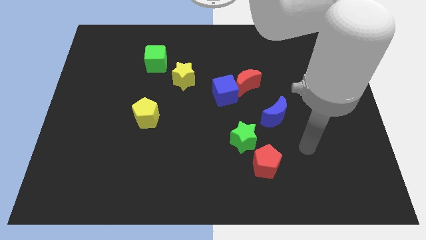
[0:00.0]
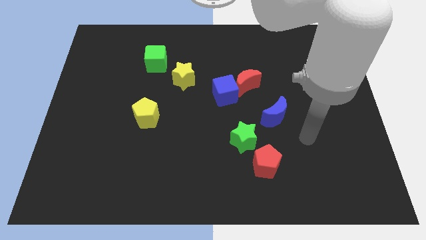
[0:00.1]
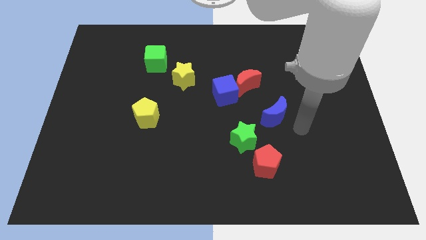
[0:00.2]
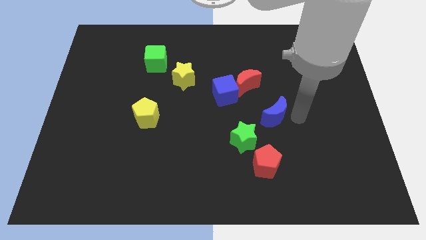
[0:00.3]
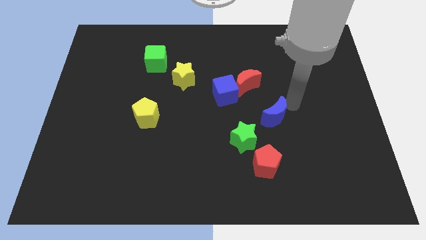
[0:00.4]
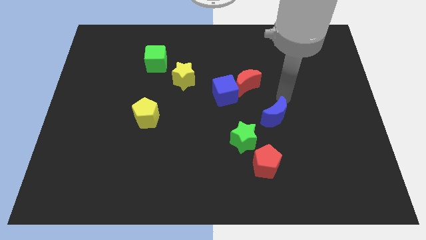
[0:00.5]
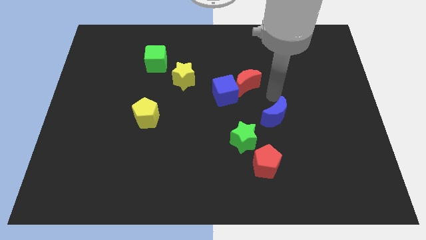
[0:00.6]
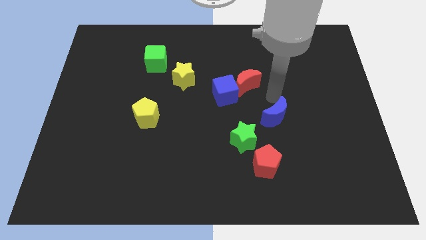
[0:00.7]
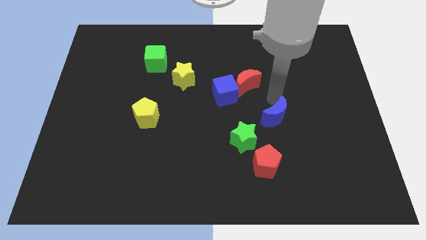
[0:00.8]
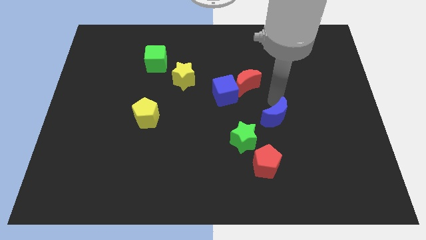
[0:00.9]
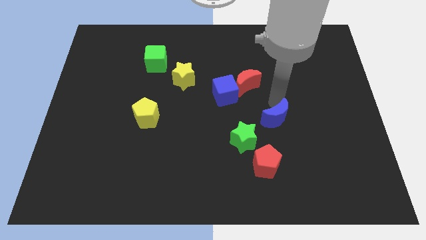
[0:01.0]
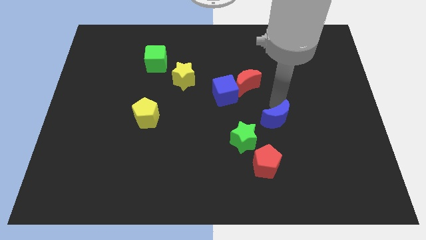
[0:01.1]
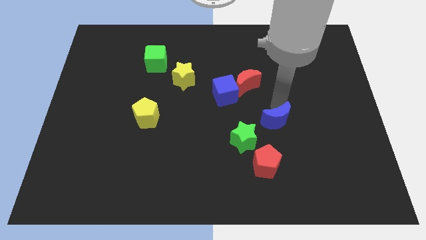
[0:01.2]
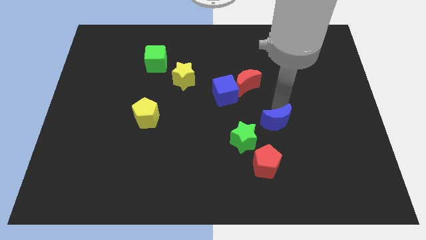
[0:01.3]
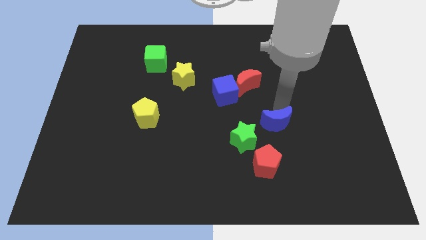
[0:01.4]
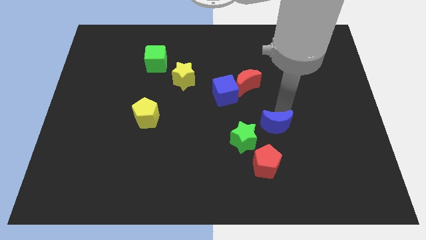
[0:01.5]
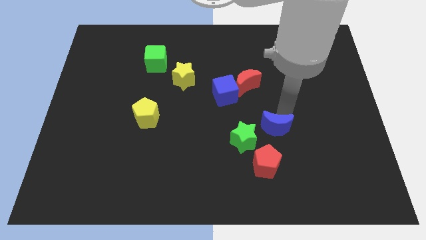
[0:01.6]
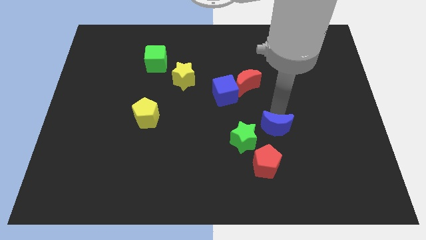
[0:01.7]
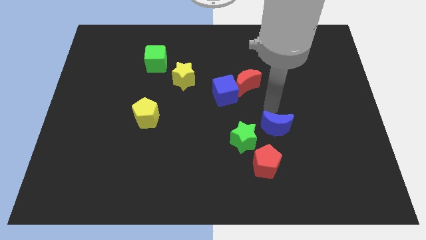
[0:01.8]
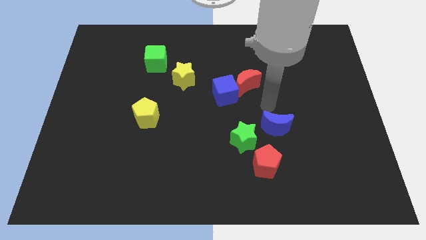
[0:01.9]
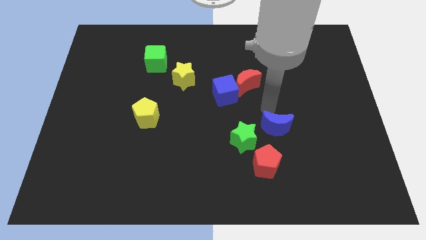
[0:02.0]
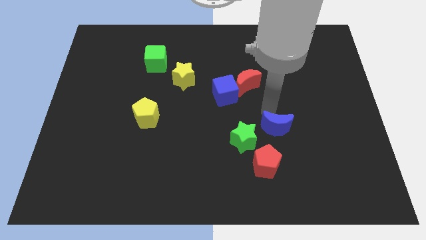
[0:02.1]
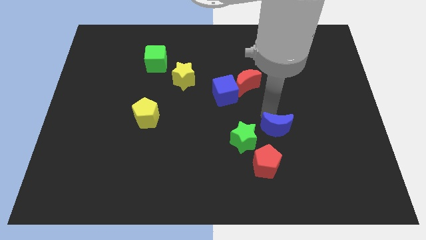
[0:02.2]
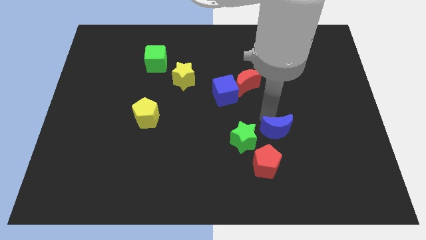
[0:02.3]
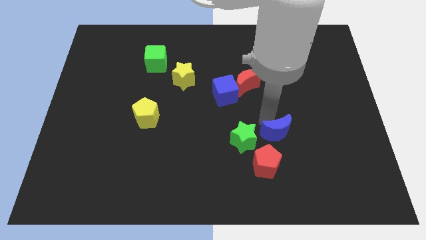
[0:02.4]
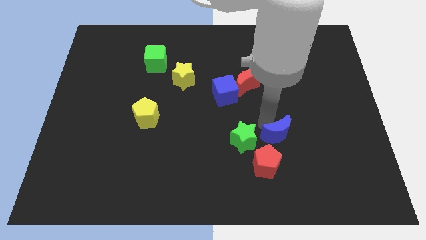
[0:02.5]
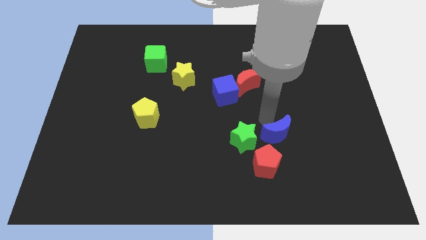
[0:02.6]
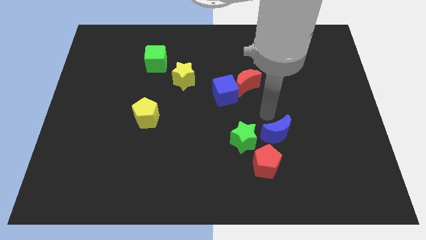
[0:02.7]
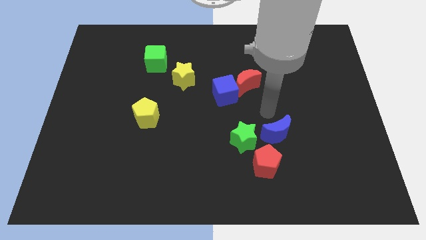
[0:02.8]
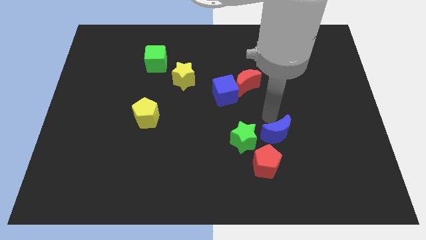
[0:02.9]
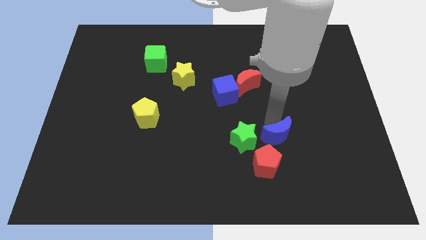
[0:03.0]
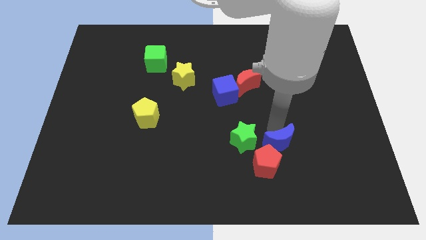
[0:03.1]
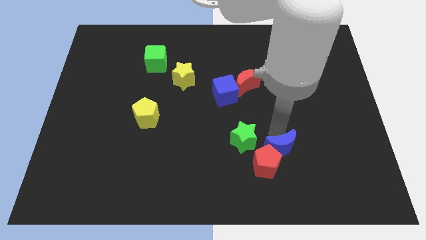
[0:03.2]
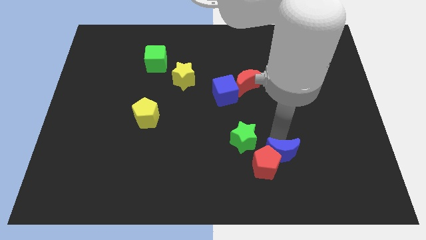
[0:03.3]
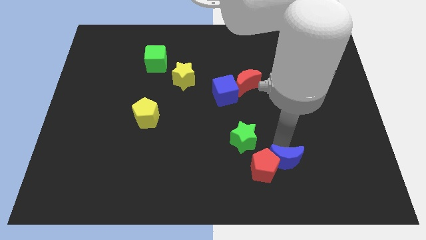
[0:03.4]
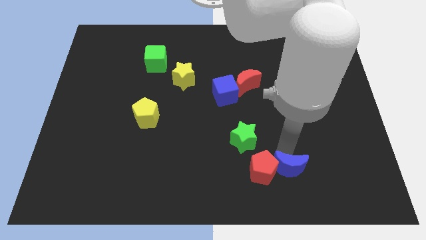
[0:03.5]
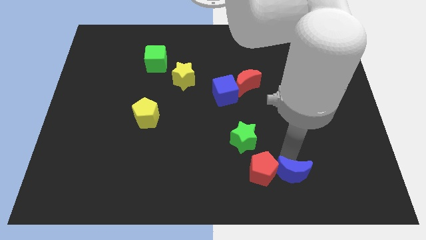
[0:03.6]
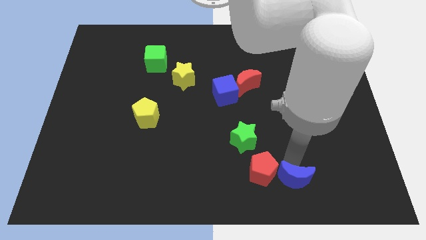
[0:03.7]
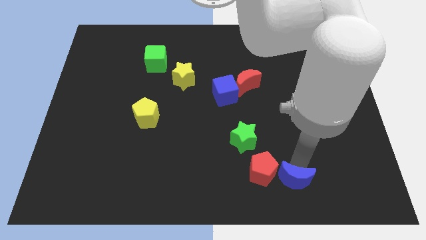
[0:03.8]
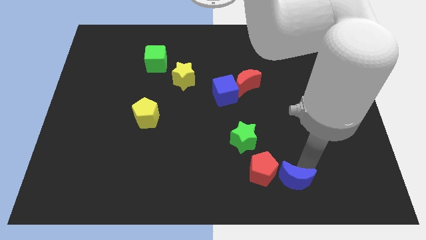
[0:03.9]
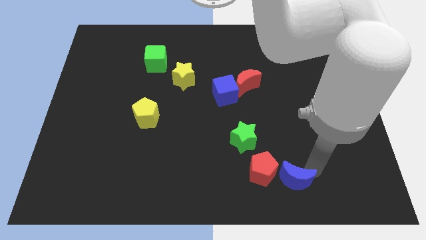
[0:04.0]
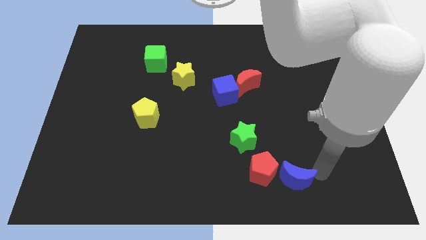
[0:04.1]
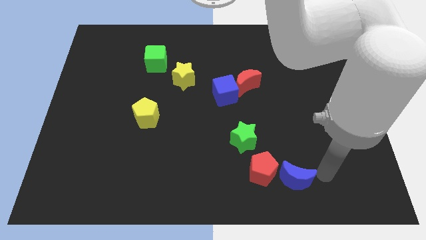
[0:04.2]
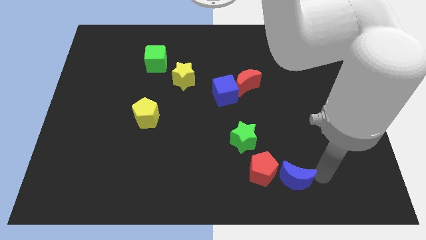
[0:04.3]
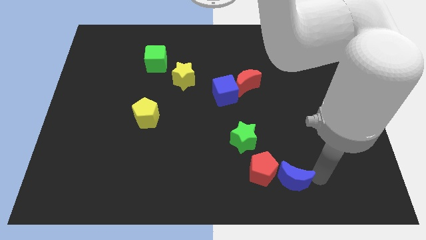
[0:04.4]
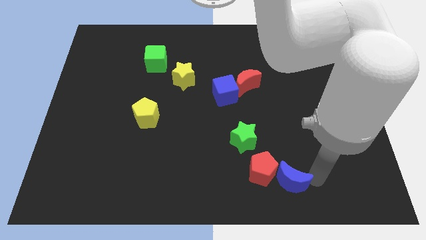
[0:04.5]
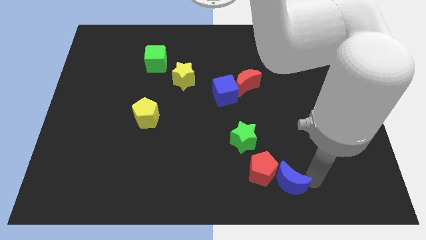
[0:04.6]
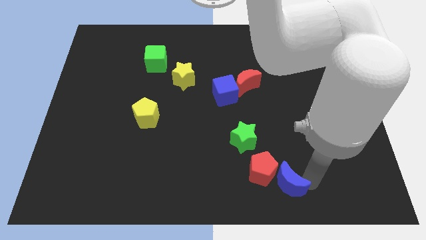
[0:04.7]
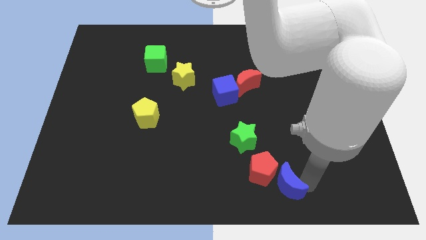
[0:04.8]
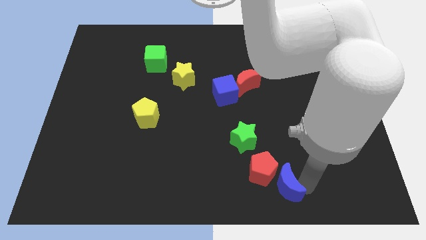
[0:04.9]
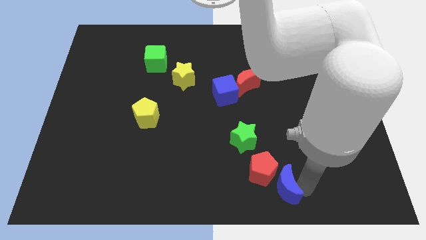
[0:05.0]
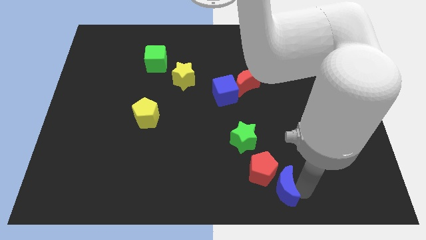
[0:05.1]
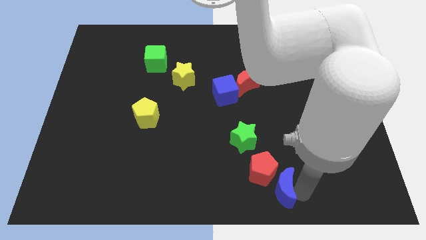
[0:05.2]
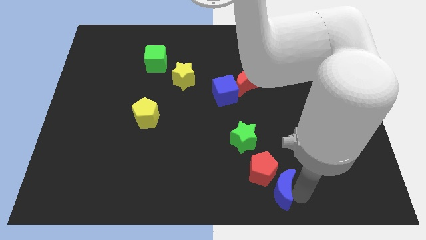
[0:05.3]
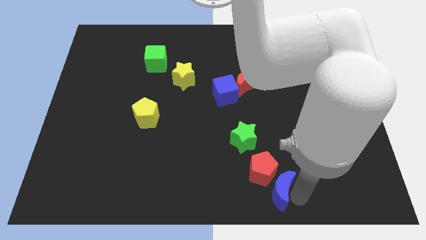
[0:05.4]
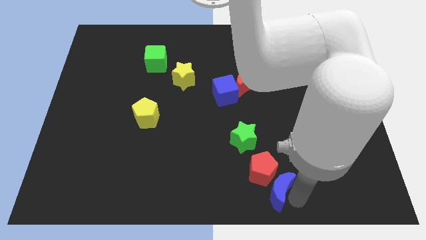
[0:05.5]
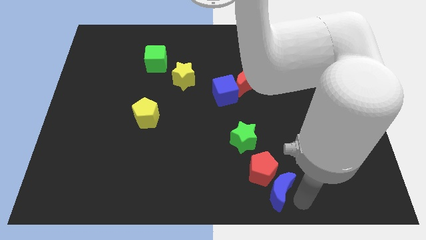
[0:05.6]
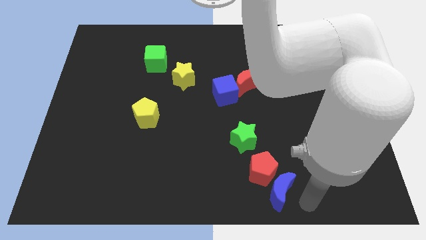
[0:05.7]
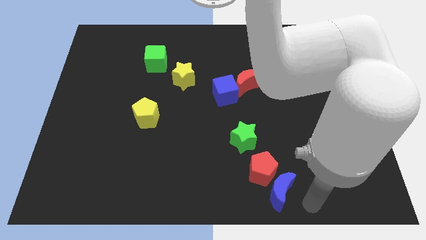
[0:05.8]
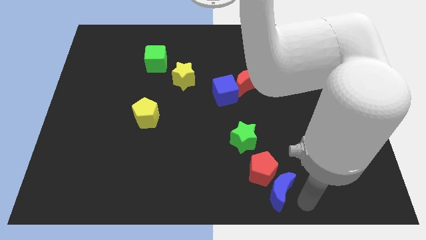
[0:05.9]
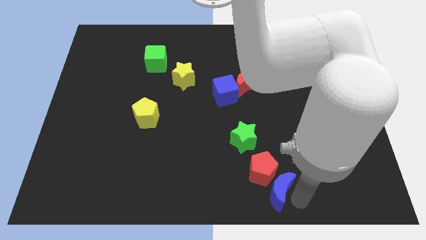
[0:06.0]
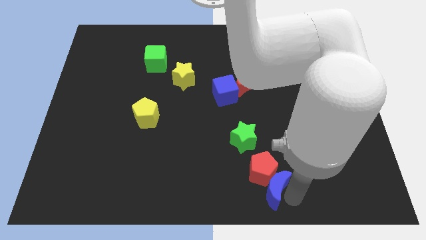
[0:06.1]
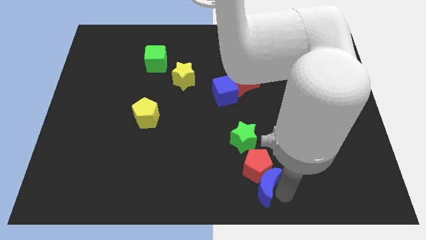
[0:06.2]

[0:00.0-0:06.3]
move the blue moon below the green star

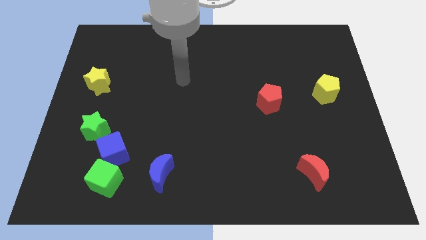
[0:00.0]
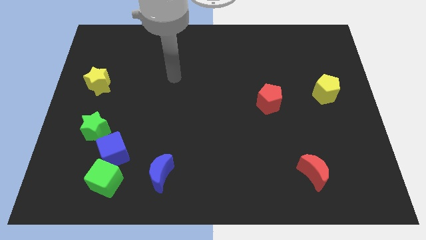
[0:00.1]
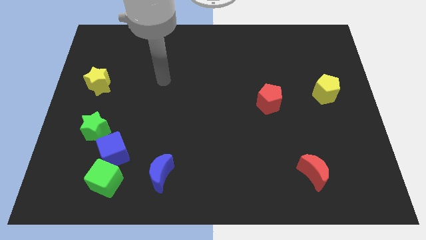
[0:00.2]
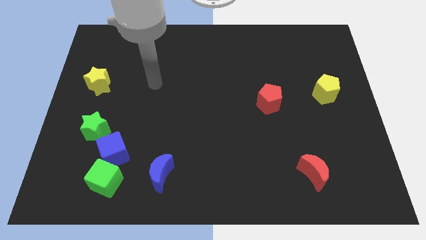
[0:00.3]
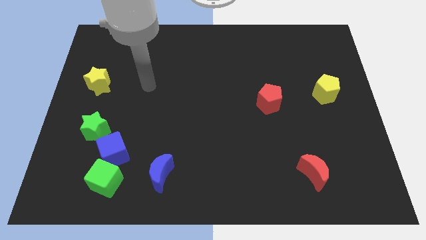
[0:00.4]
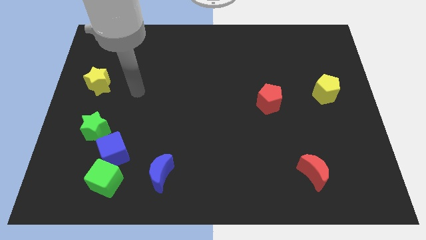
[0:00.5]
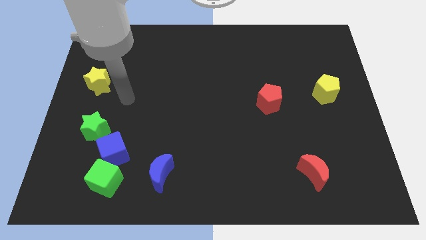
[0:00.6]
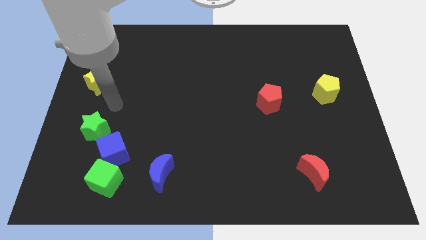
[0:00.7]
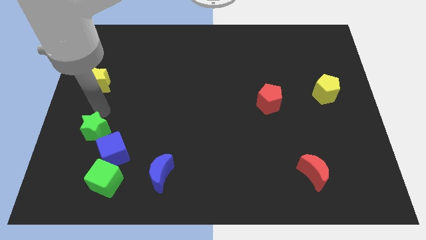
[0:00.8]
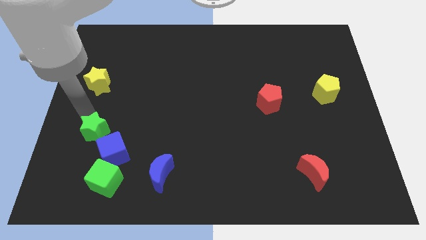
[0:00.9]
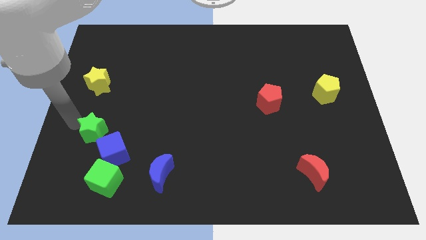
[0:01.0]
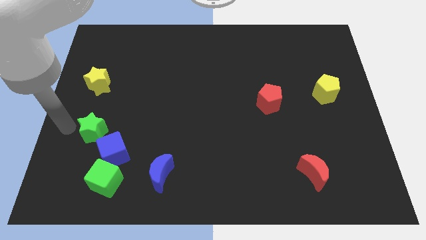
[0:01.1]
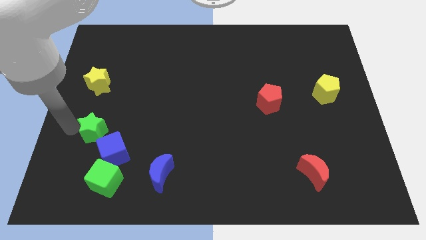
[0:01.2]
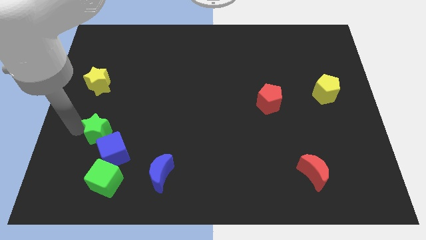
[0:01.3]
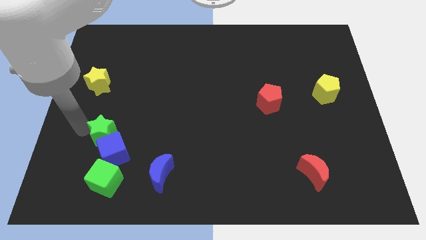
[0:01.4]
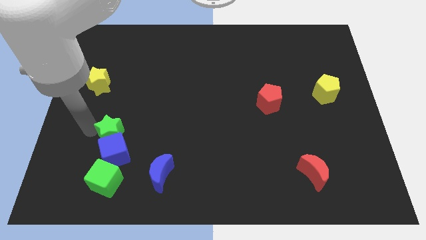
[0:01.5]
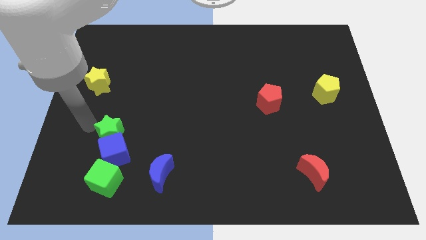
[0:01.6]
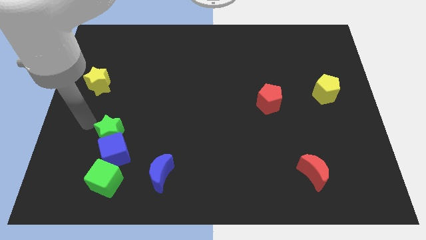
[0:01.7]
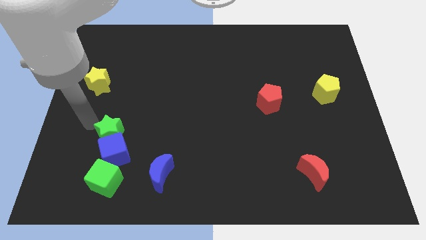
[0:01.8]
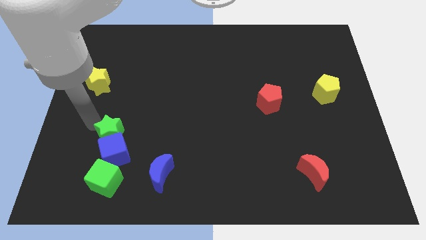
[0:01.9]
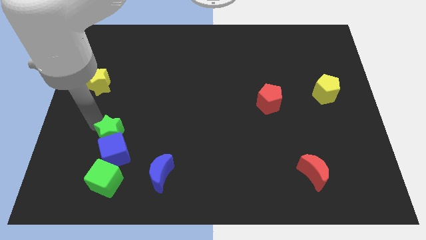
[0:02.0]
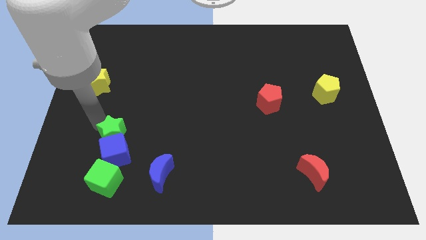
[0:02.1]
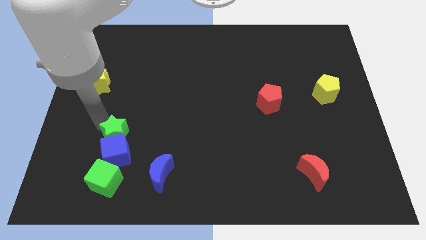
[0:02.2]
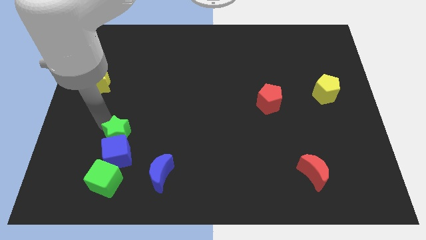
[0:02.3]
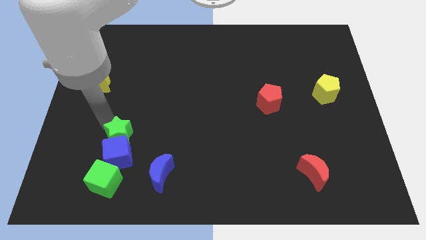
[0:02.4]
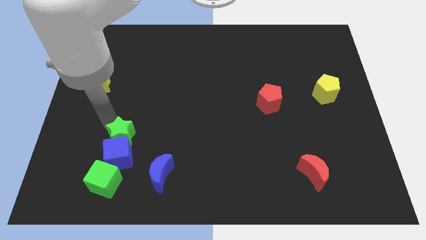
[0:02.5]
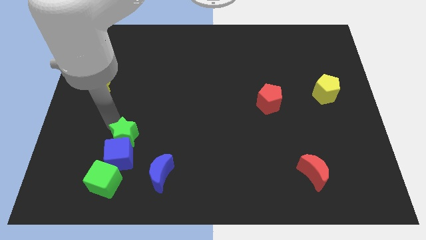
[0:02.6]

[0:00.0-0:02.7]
move the green star diagonally up and to the left of the blue moon
